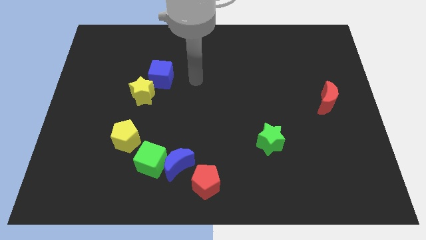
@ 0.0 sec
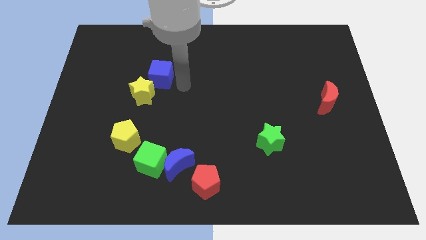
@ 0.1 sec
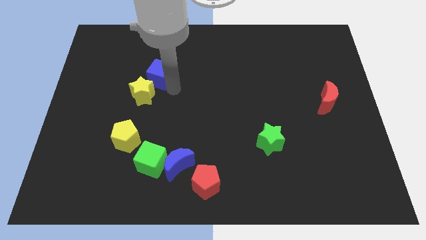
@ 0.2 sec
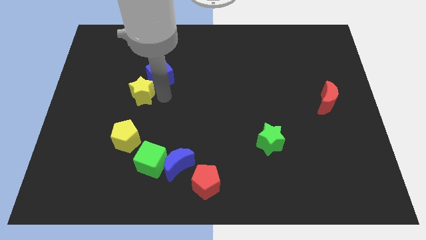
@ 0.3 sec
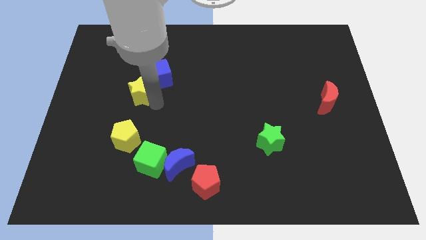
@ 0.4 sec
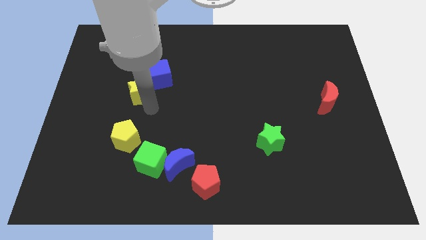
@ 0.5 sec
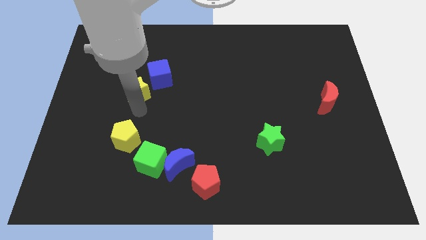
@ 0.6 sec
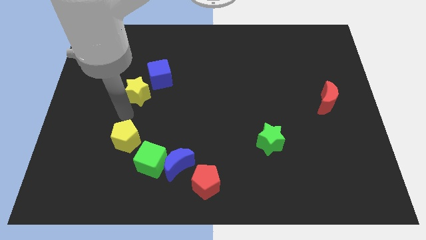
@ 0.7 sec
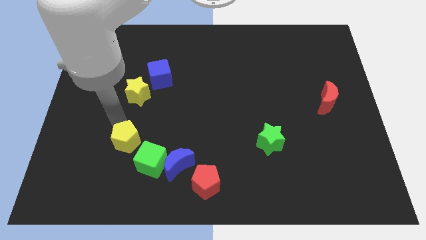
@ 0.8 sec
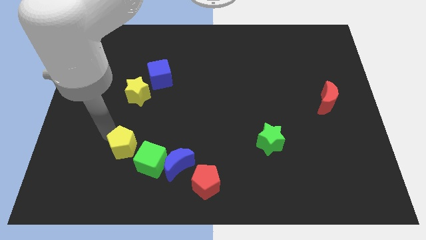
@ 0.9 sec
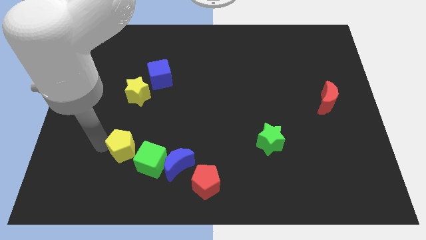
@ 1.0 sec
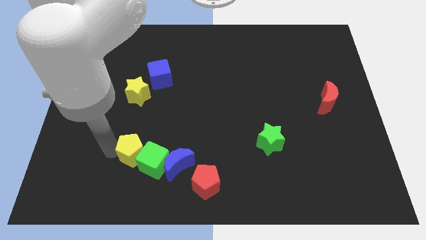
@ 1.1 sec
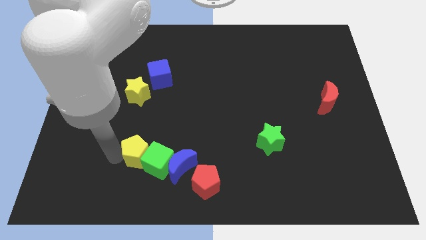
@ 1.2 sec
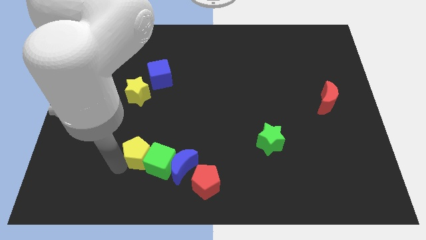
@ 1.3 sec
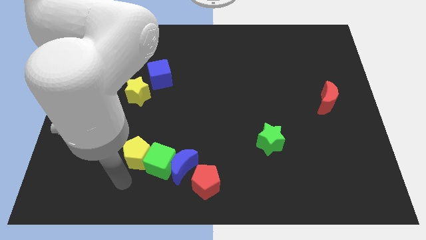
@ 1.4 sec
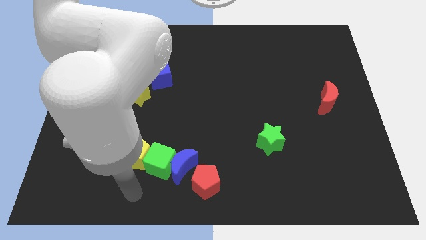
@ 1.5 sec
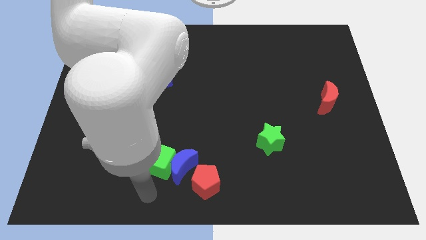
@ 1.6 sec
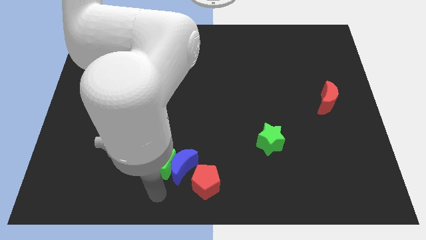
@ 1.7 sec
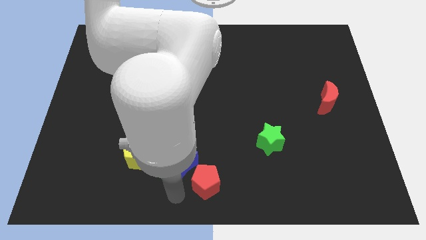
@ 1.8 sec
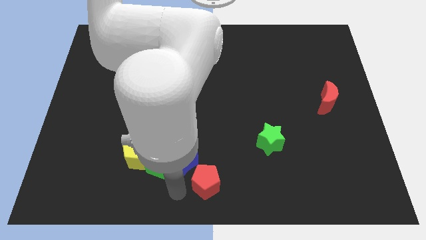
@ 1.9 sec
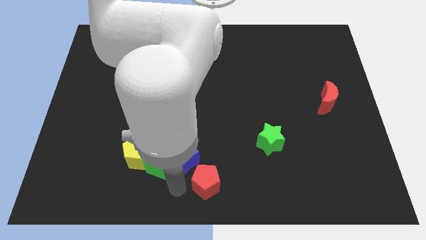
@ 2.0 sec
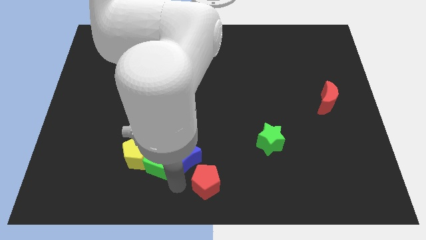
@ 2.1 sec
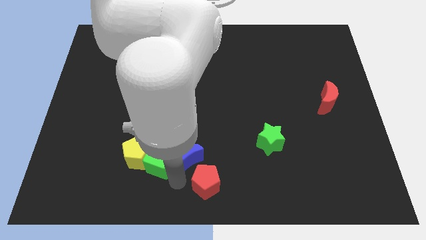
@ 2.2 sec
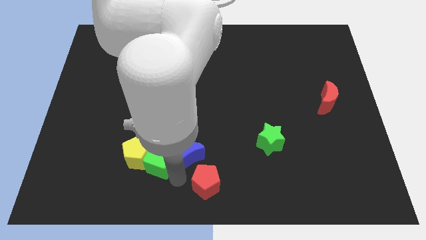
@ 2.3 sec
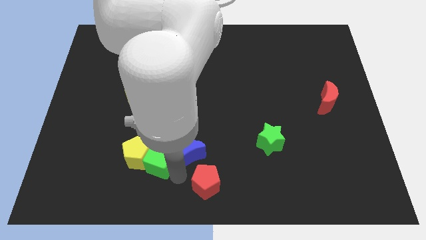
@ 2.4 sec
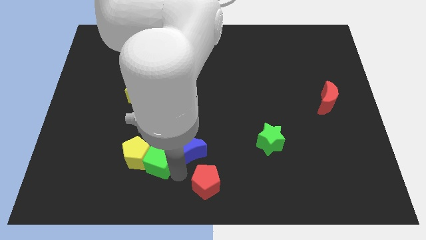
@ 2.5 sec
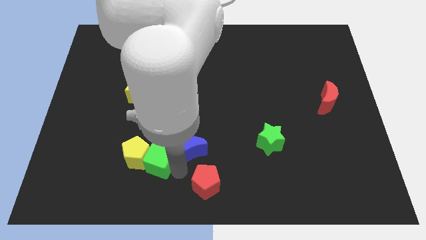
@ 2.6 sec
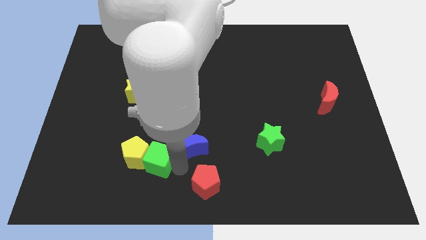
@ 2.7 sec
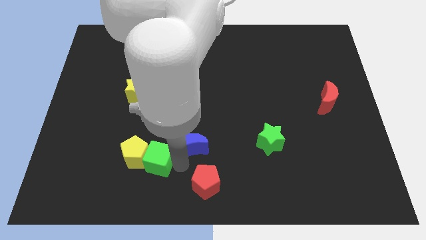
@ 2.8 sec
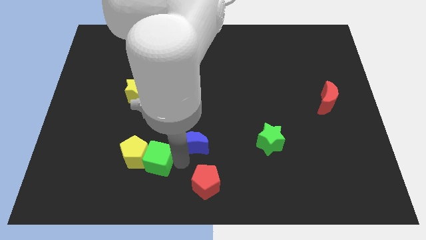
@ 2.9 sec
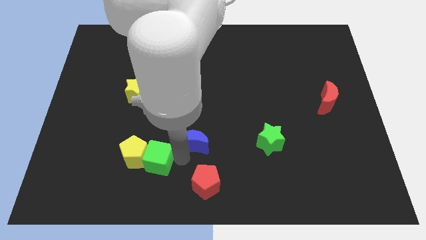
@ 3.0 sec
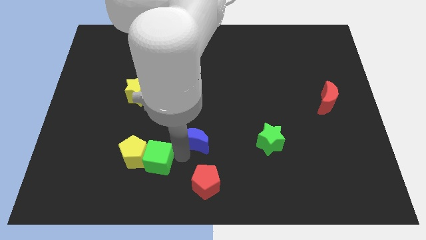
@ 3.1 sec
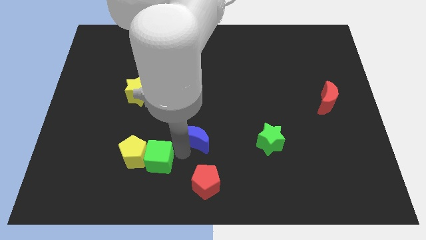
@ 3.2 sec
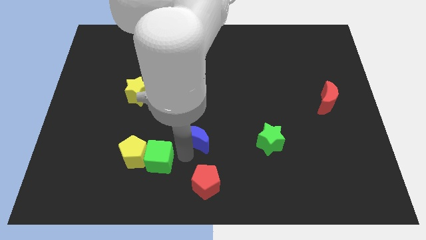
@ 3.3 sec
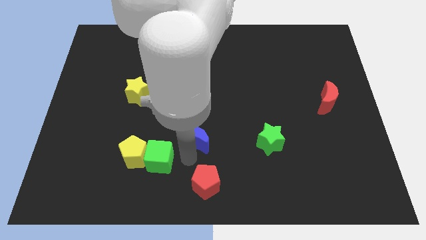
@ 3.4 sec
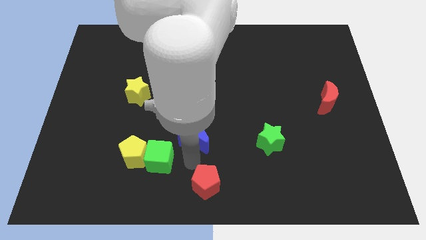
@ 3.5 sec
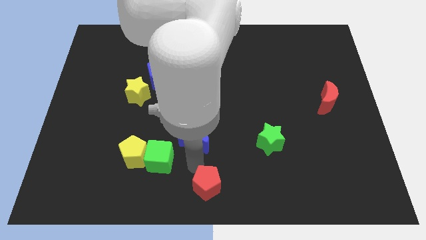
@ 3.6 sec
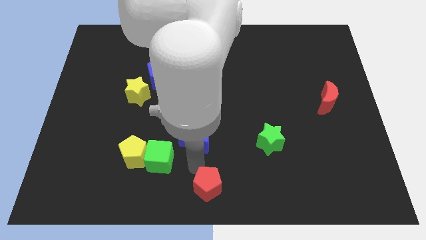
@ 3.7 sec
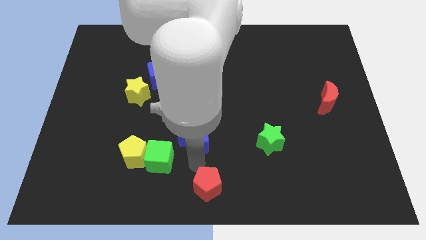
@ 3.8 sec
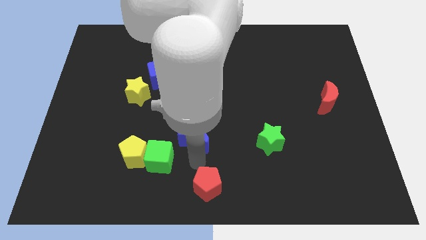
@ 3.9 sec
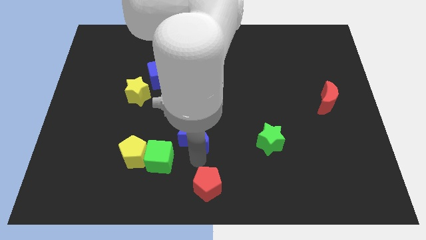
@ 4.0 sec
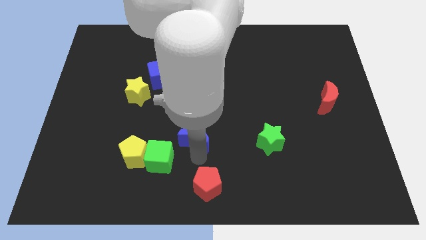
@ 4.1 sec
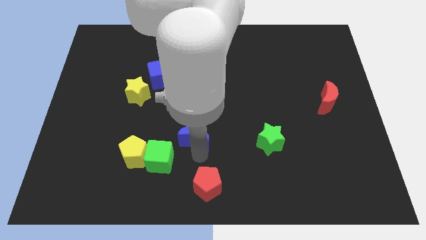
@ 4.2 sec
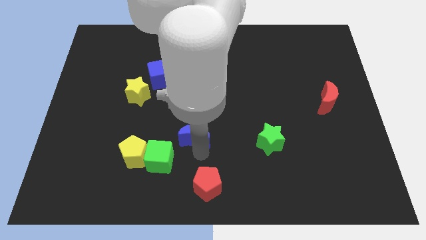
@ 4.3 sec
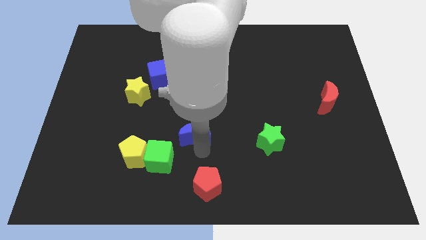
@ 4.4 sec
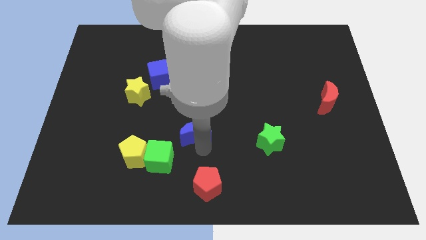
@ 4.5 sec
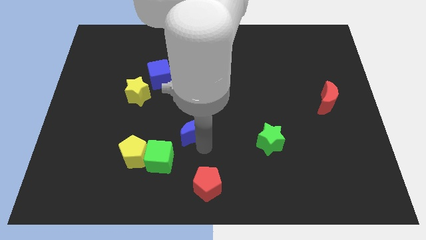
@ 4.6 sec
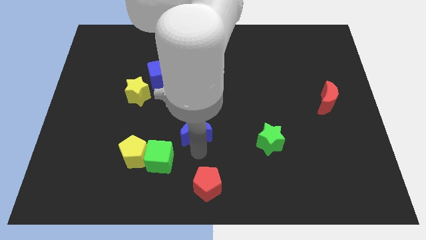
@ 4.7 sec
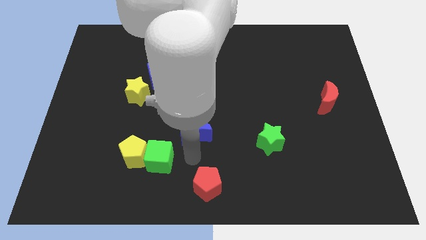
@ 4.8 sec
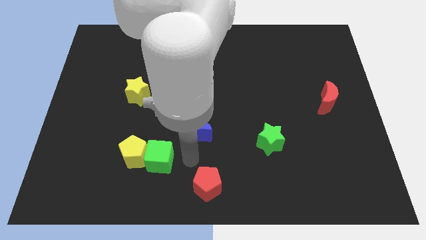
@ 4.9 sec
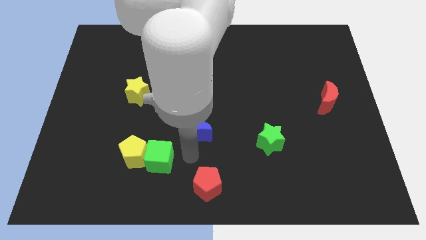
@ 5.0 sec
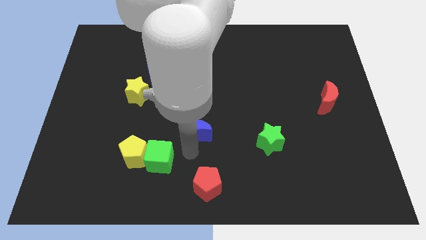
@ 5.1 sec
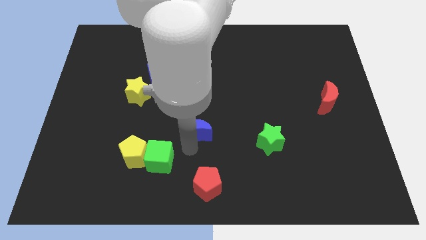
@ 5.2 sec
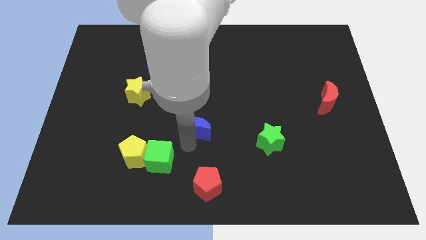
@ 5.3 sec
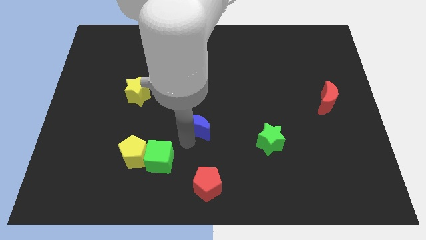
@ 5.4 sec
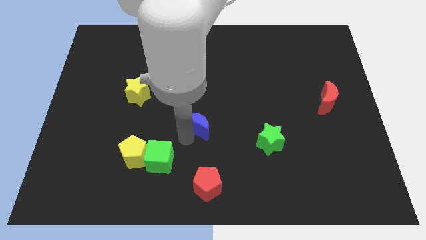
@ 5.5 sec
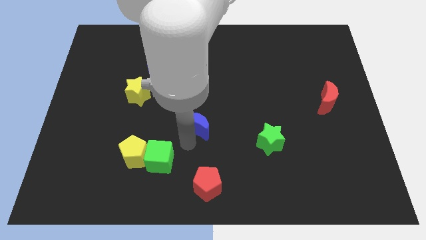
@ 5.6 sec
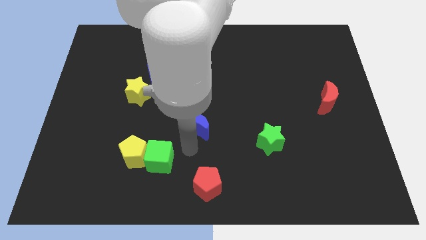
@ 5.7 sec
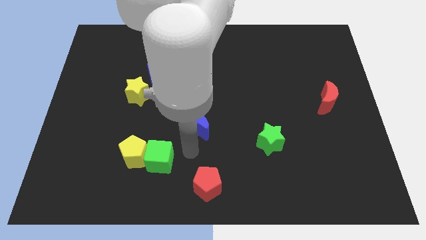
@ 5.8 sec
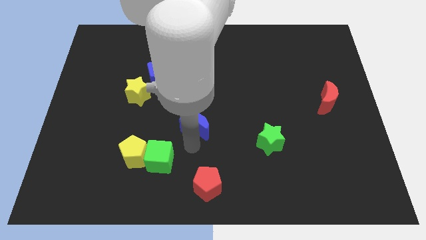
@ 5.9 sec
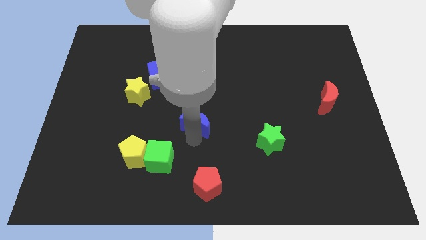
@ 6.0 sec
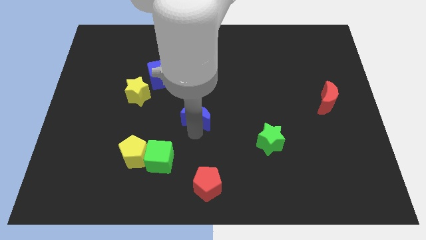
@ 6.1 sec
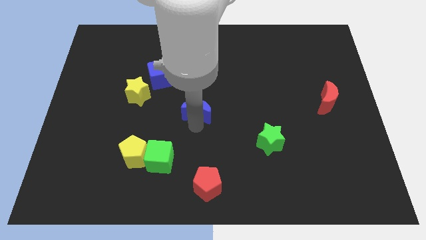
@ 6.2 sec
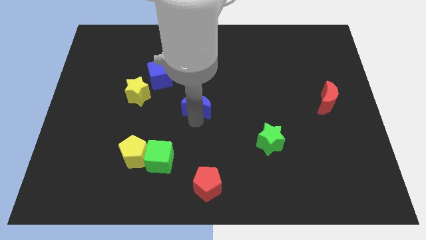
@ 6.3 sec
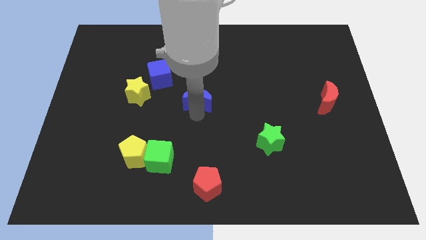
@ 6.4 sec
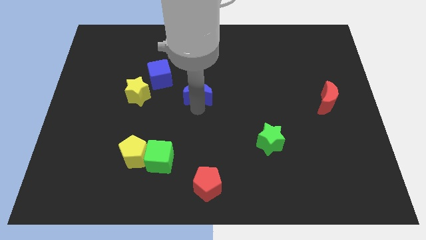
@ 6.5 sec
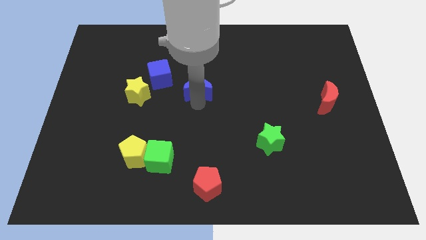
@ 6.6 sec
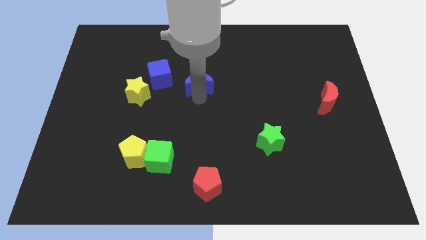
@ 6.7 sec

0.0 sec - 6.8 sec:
move the blue moon up

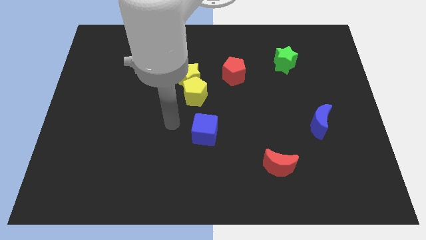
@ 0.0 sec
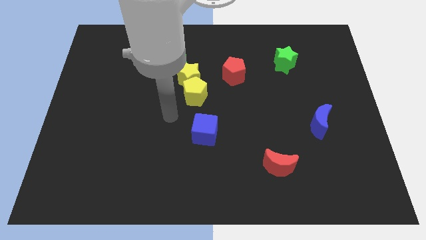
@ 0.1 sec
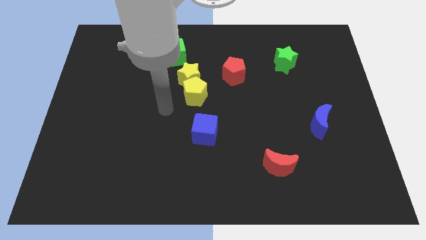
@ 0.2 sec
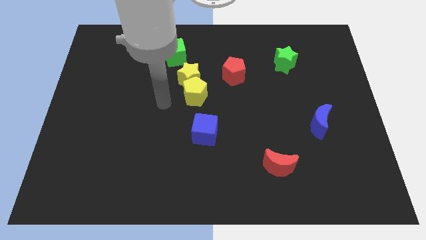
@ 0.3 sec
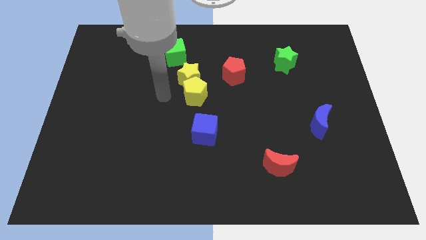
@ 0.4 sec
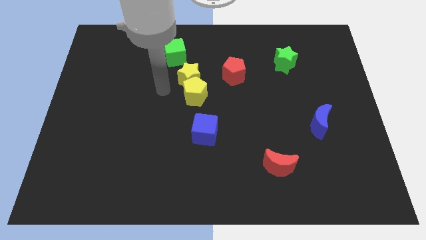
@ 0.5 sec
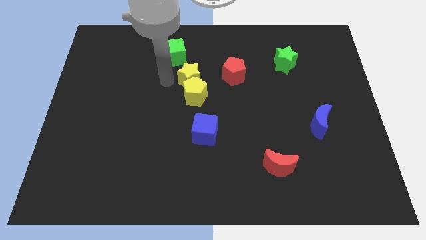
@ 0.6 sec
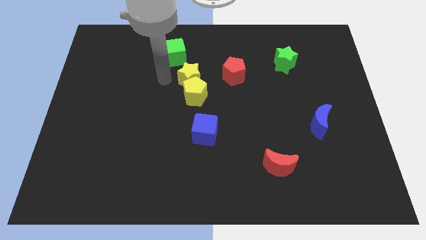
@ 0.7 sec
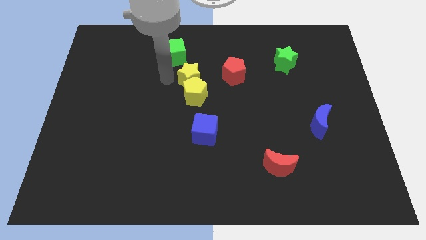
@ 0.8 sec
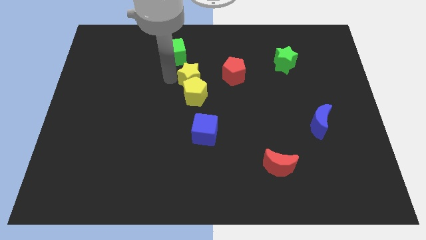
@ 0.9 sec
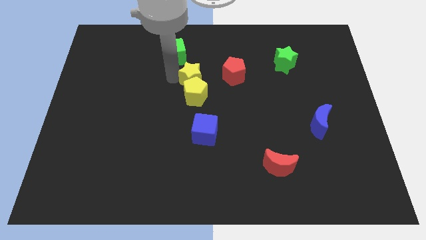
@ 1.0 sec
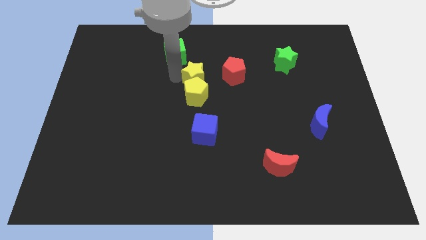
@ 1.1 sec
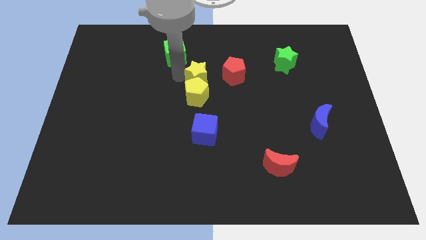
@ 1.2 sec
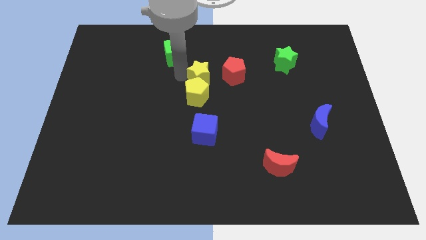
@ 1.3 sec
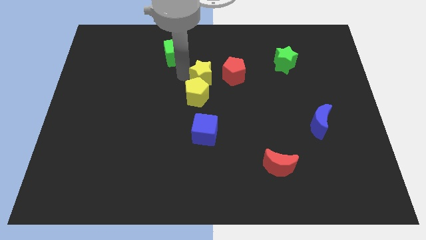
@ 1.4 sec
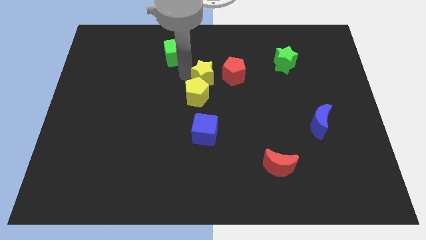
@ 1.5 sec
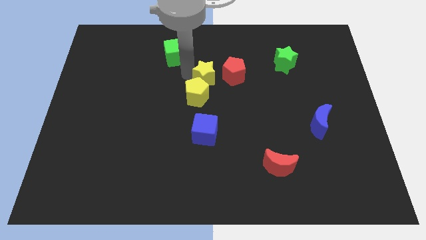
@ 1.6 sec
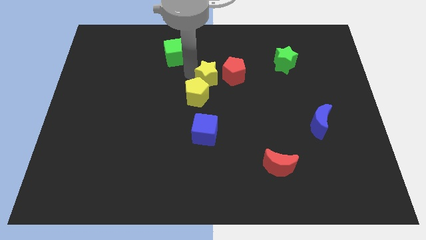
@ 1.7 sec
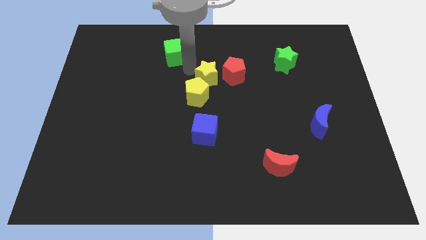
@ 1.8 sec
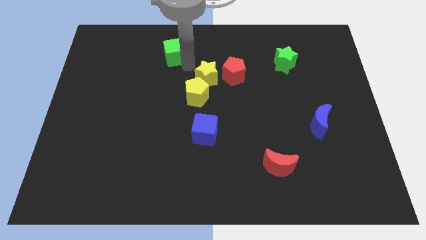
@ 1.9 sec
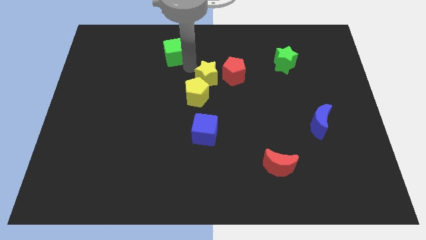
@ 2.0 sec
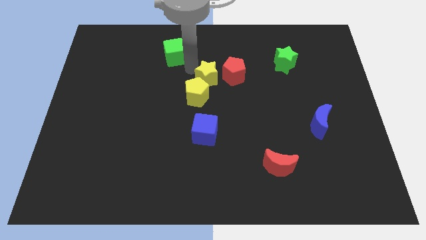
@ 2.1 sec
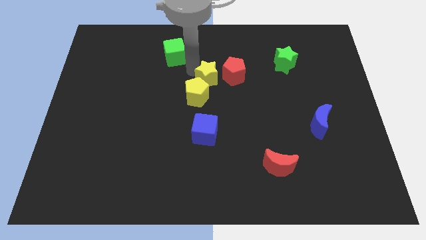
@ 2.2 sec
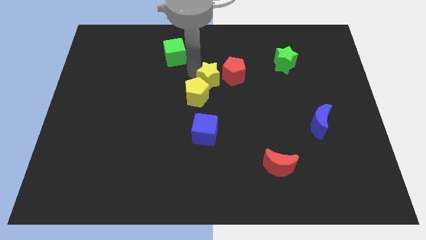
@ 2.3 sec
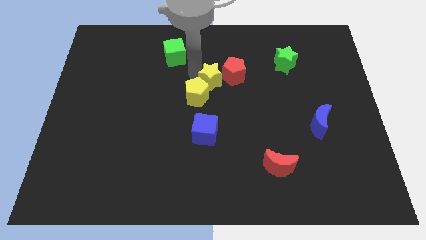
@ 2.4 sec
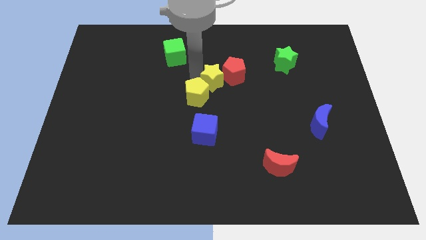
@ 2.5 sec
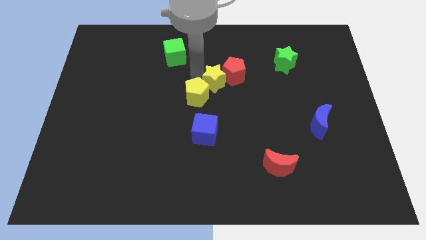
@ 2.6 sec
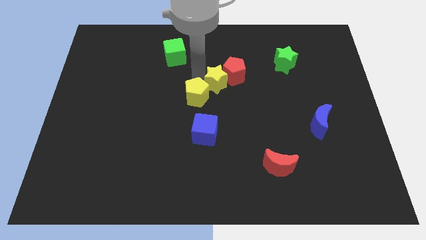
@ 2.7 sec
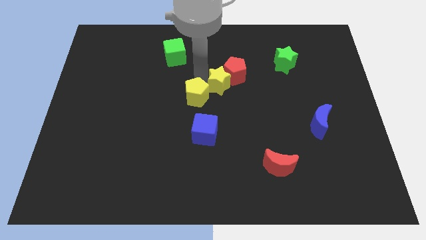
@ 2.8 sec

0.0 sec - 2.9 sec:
slightly move the yellow star to the right
